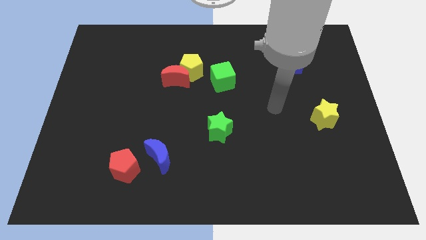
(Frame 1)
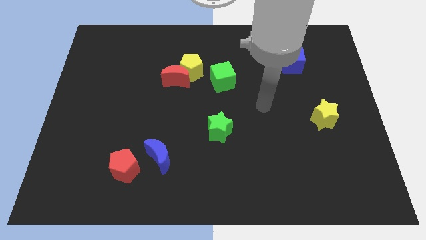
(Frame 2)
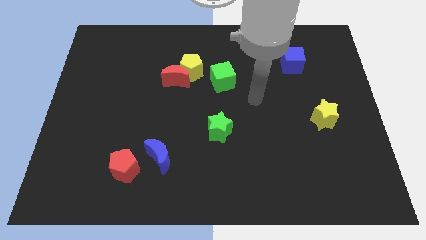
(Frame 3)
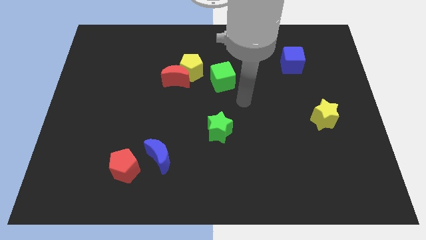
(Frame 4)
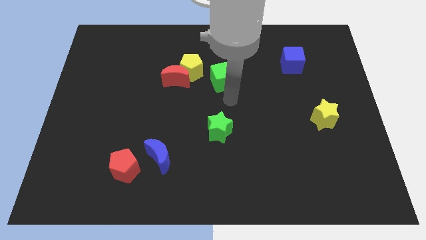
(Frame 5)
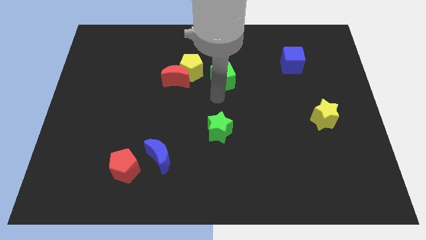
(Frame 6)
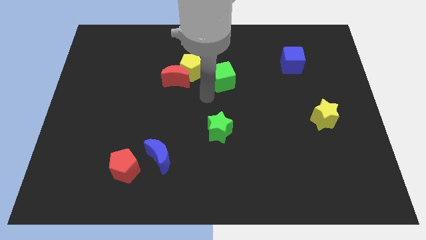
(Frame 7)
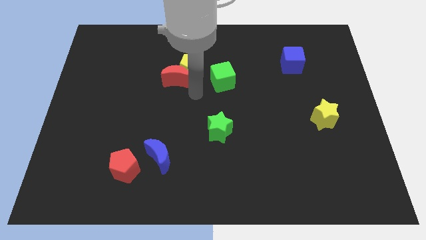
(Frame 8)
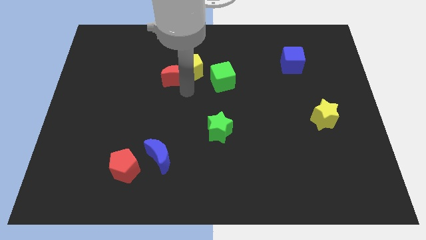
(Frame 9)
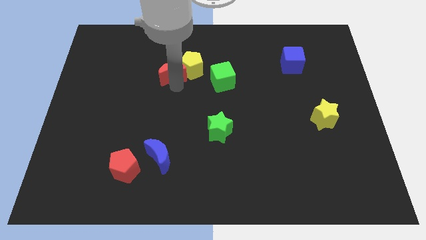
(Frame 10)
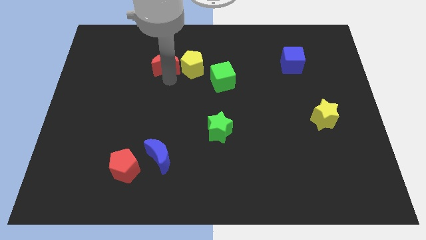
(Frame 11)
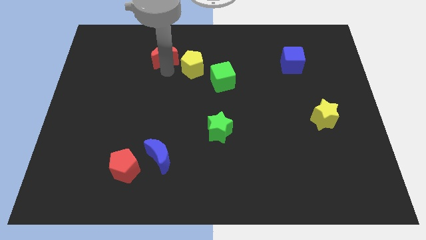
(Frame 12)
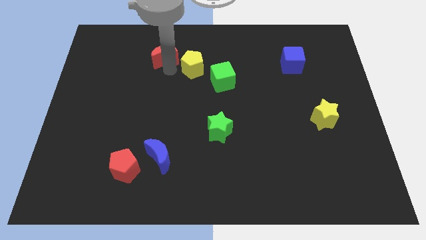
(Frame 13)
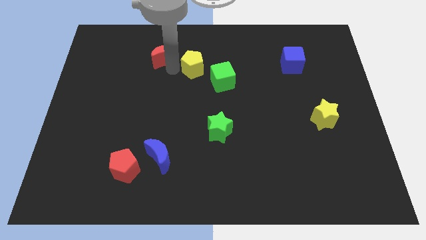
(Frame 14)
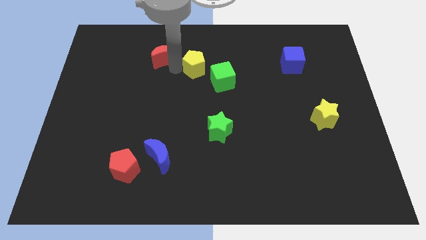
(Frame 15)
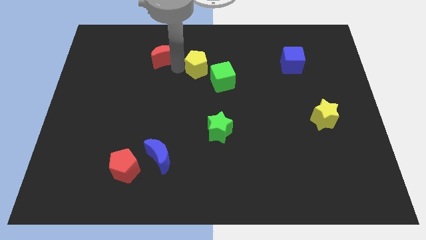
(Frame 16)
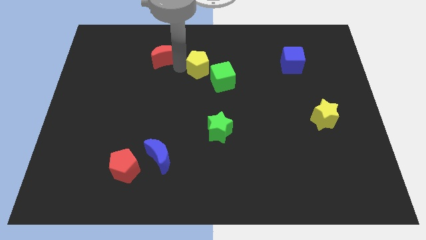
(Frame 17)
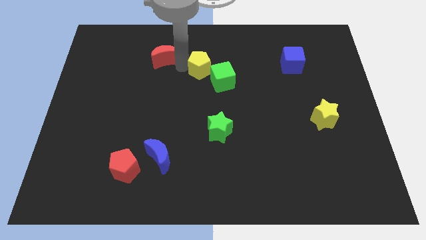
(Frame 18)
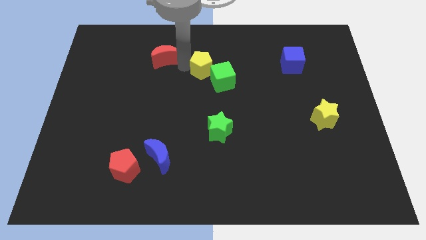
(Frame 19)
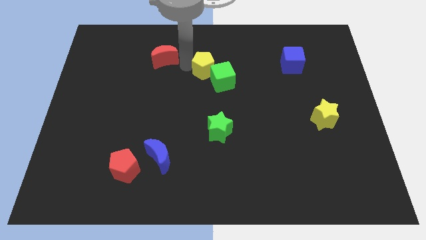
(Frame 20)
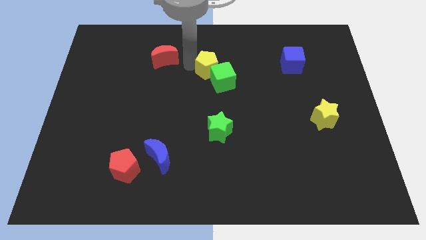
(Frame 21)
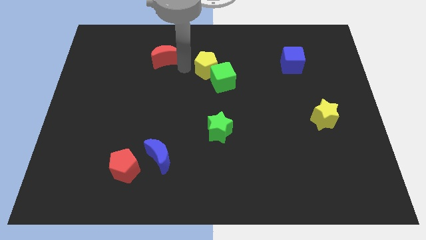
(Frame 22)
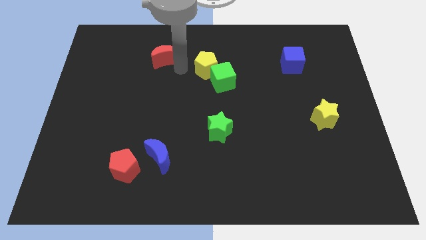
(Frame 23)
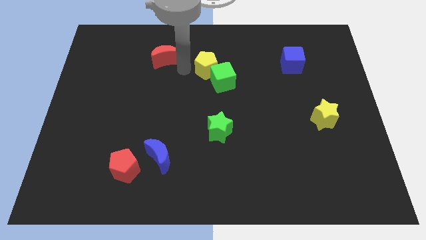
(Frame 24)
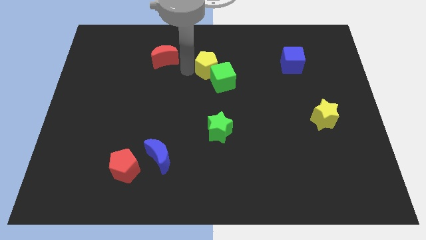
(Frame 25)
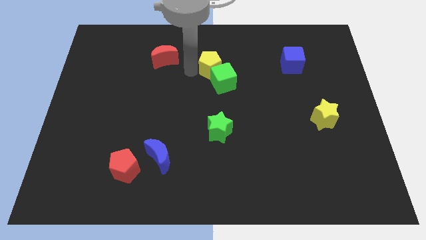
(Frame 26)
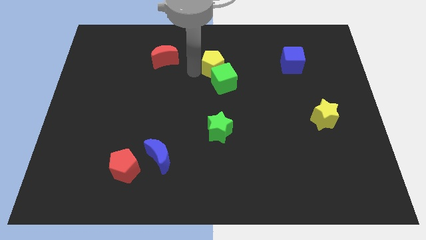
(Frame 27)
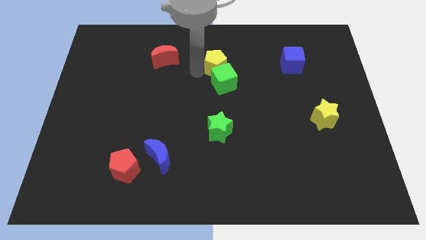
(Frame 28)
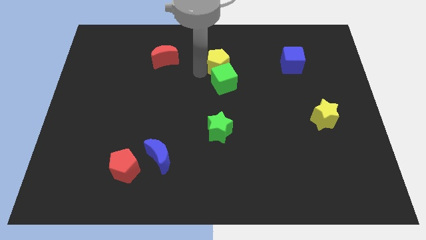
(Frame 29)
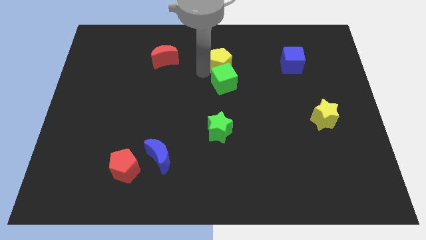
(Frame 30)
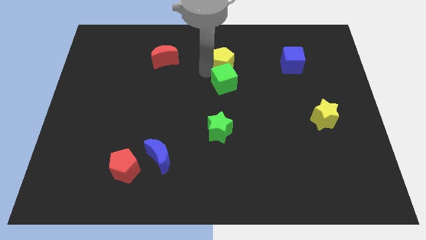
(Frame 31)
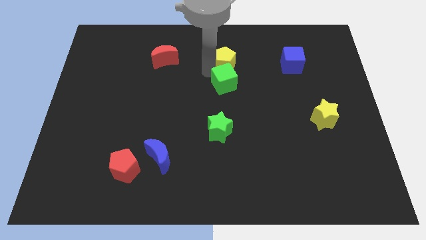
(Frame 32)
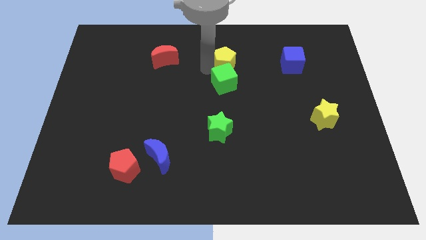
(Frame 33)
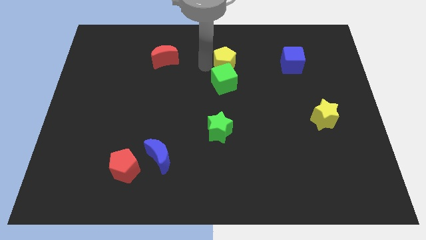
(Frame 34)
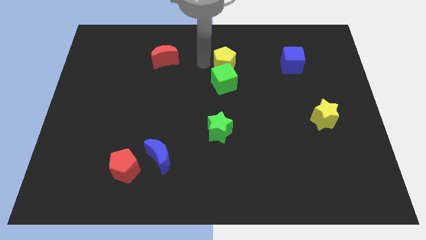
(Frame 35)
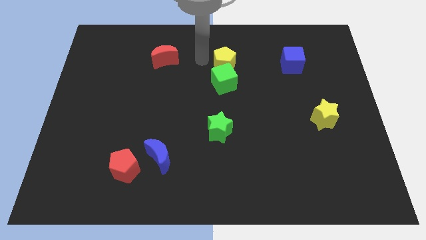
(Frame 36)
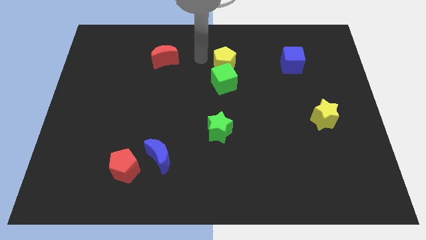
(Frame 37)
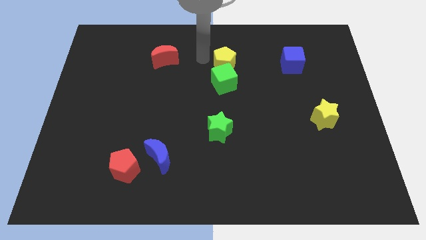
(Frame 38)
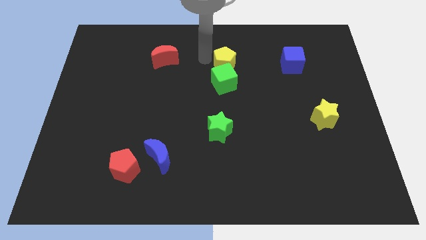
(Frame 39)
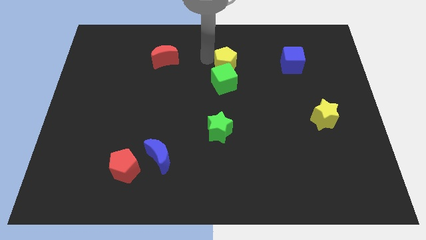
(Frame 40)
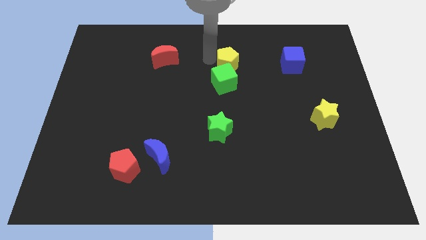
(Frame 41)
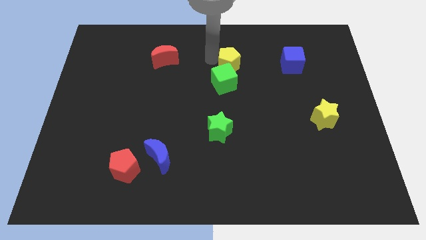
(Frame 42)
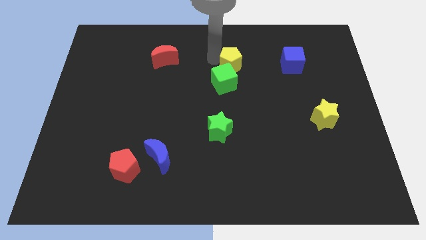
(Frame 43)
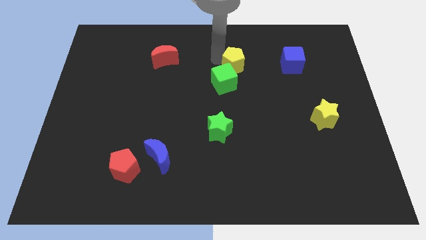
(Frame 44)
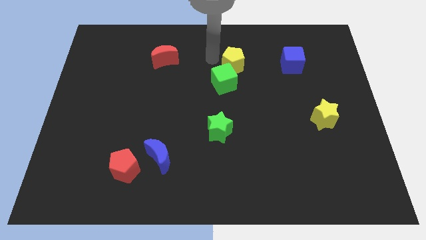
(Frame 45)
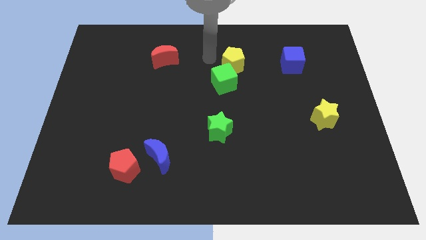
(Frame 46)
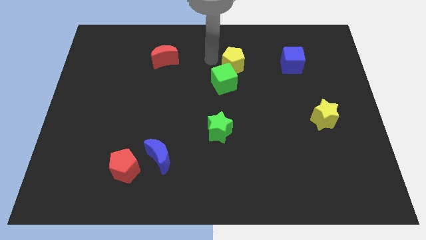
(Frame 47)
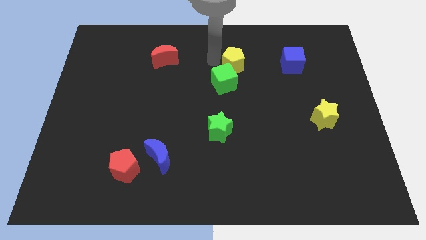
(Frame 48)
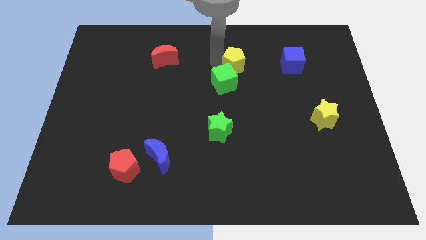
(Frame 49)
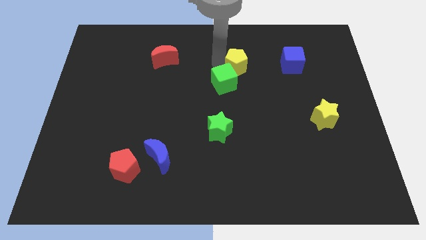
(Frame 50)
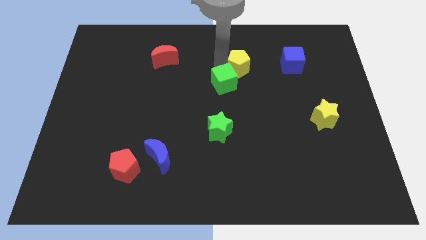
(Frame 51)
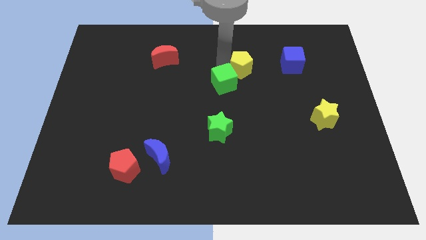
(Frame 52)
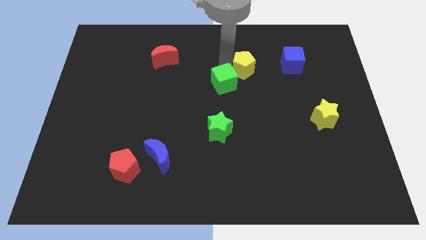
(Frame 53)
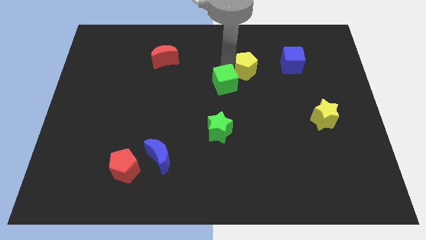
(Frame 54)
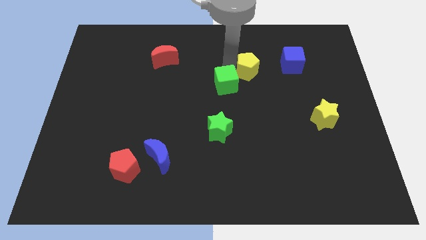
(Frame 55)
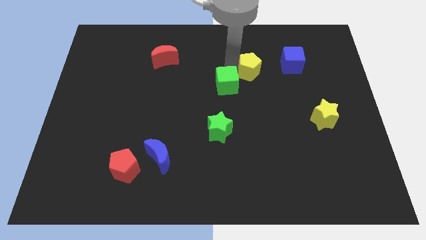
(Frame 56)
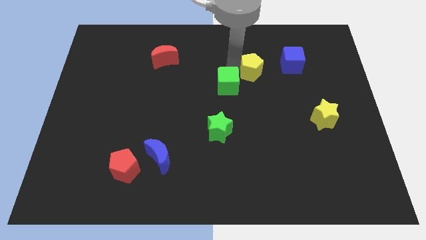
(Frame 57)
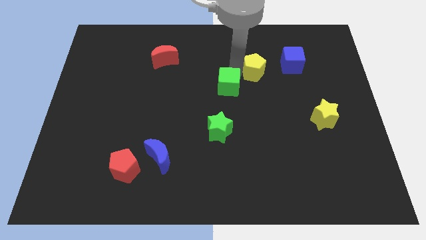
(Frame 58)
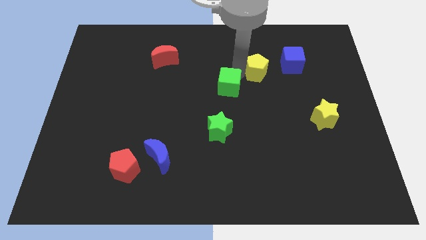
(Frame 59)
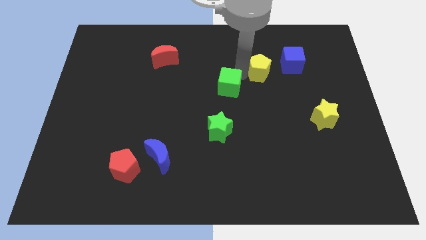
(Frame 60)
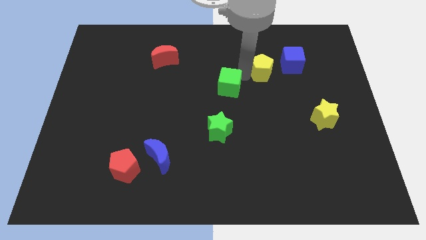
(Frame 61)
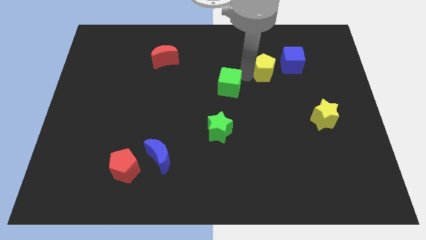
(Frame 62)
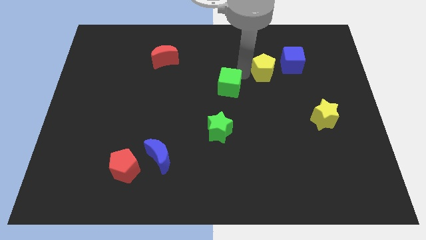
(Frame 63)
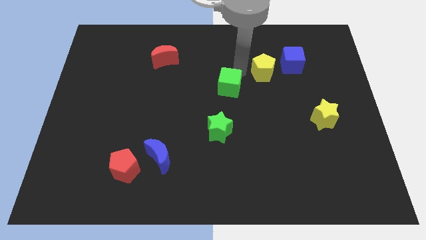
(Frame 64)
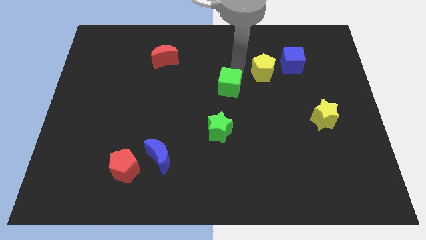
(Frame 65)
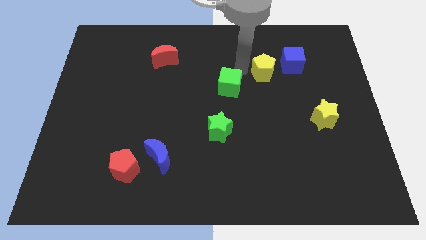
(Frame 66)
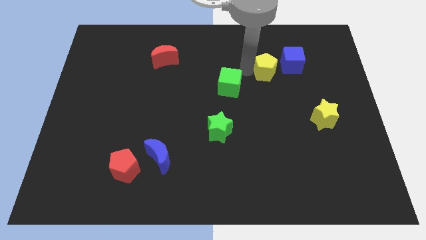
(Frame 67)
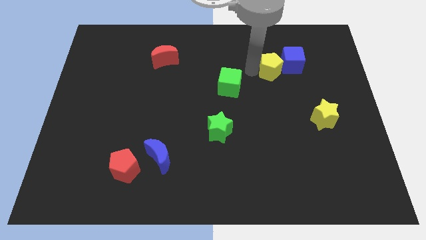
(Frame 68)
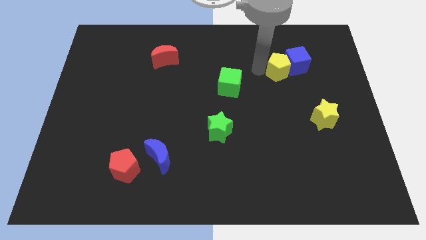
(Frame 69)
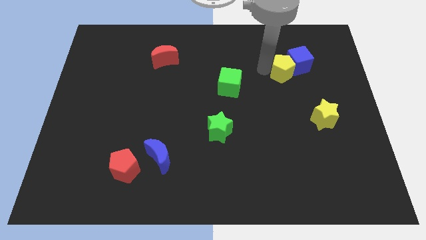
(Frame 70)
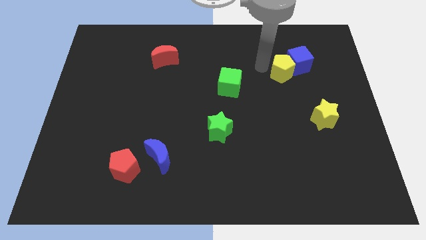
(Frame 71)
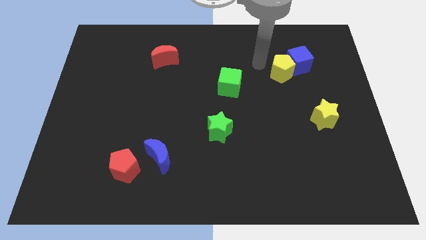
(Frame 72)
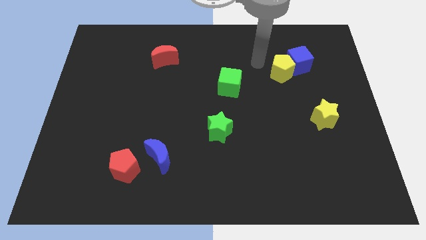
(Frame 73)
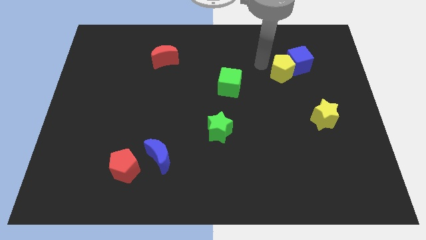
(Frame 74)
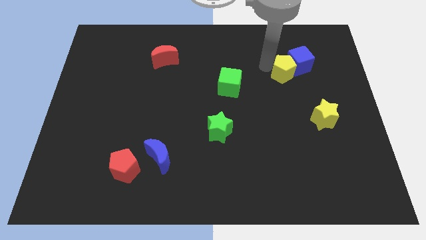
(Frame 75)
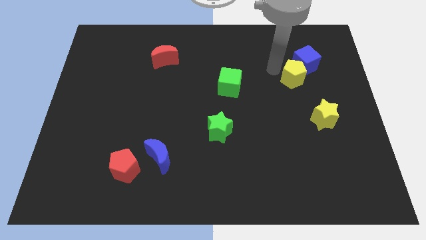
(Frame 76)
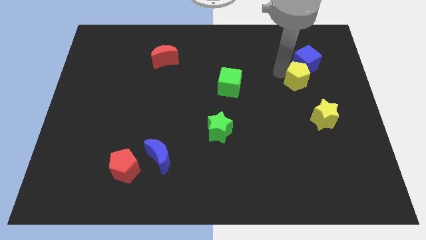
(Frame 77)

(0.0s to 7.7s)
move the yellow pentagon to the top side of the yellow star
